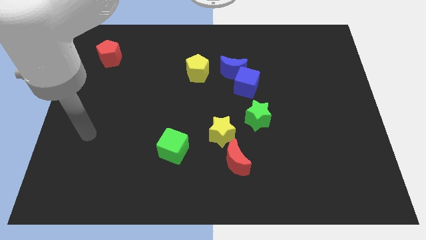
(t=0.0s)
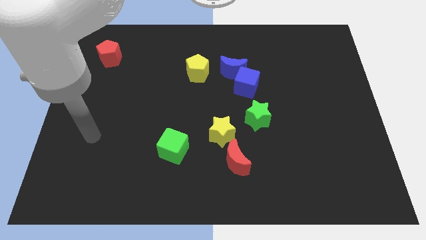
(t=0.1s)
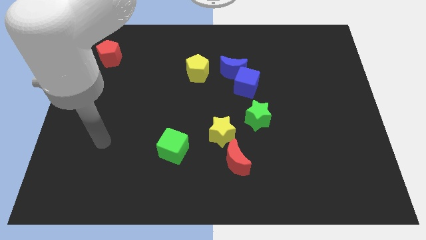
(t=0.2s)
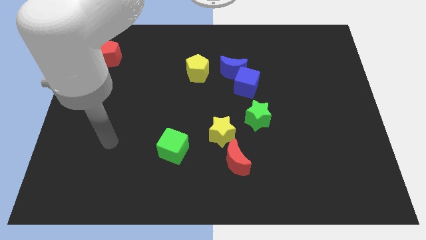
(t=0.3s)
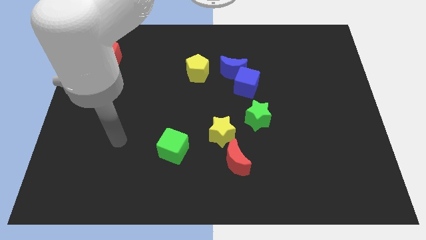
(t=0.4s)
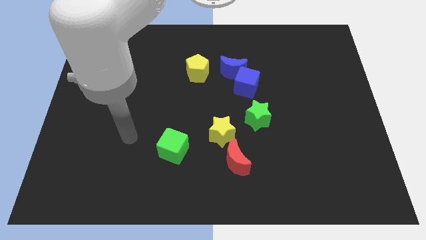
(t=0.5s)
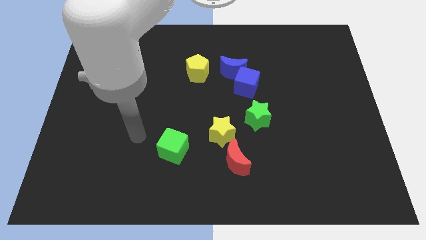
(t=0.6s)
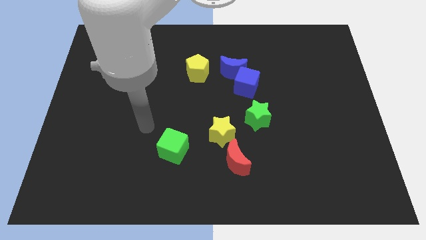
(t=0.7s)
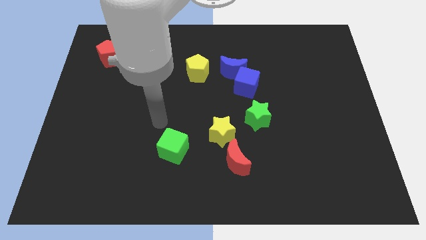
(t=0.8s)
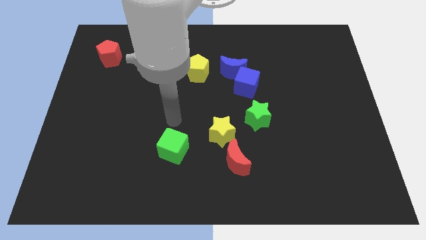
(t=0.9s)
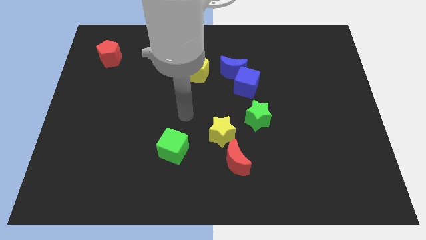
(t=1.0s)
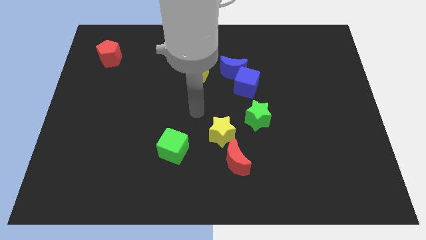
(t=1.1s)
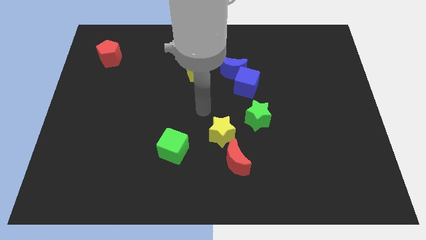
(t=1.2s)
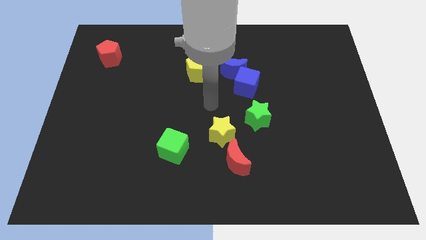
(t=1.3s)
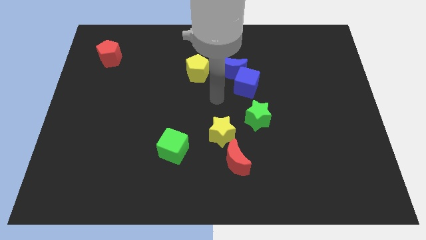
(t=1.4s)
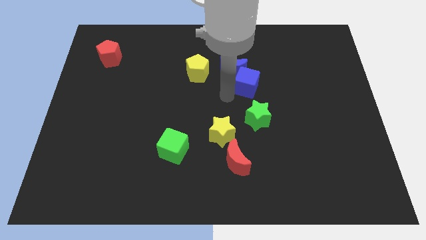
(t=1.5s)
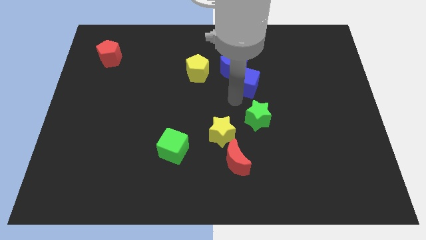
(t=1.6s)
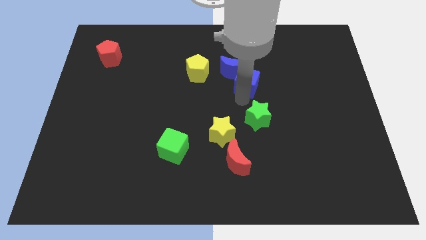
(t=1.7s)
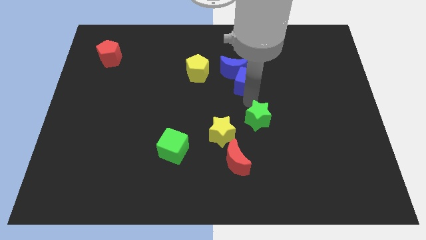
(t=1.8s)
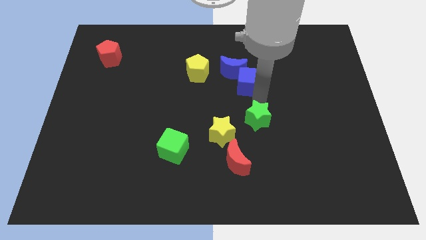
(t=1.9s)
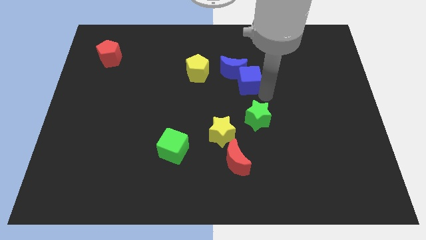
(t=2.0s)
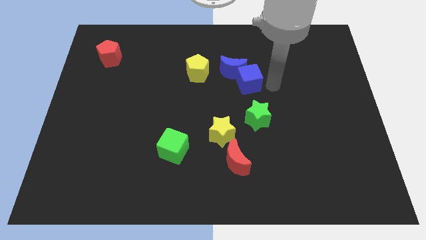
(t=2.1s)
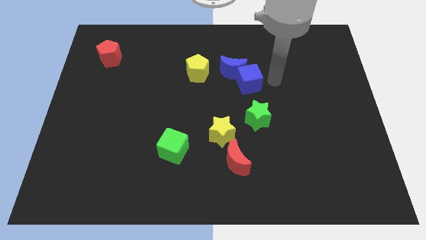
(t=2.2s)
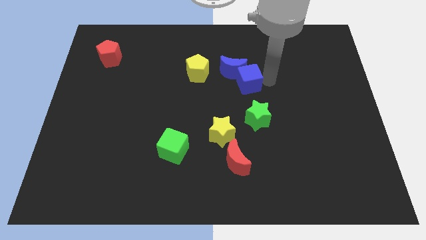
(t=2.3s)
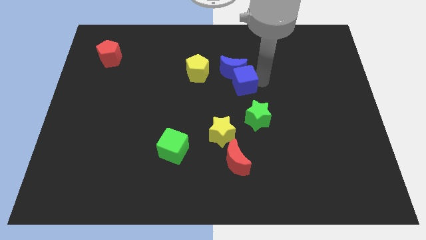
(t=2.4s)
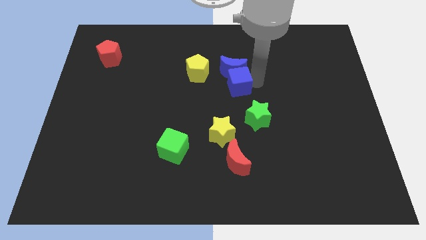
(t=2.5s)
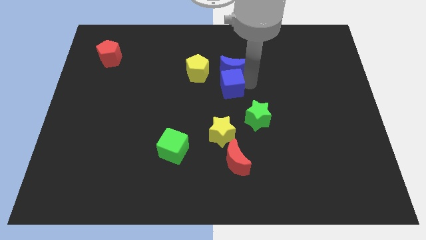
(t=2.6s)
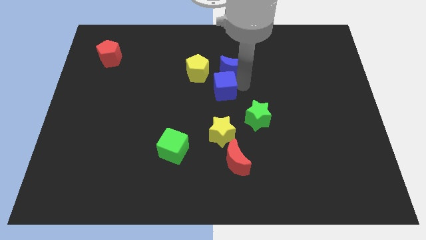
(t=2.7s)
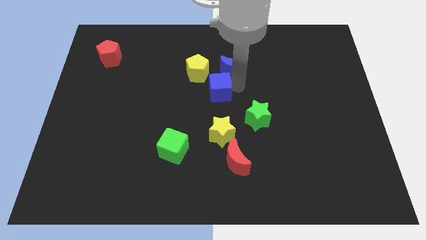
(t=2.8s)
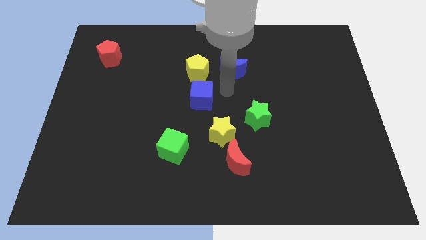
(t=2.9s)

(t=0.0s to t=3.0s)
slightly push the blue cube to the left

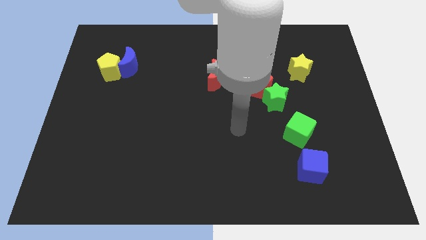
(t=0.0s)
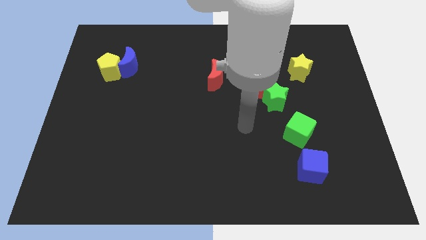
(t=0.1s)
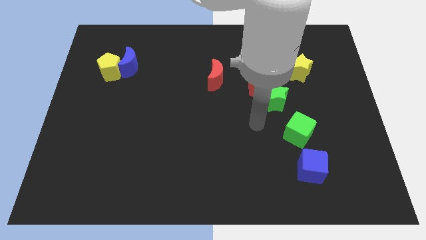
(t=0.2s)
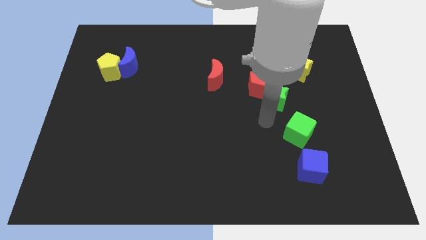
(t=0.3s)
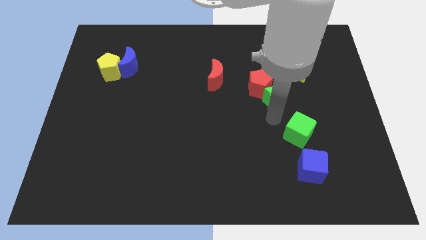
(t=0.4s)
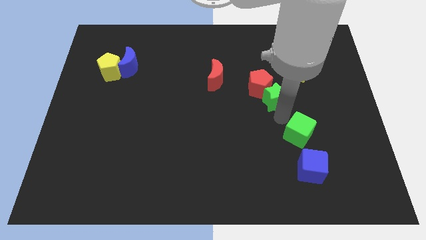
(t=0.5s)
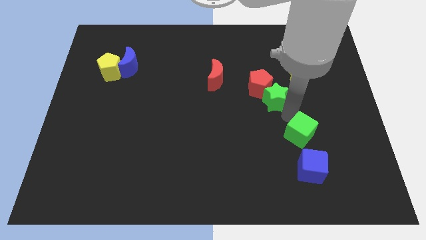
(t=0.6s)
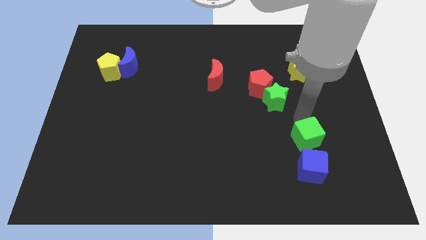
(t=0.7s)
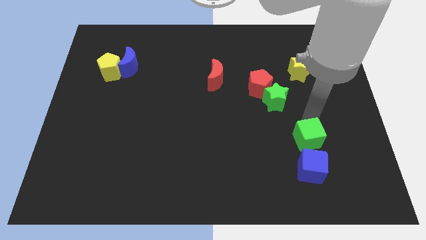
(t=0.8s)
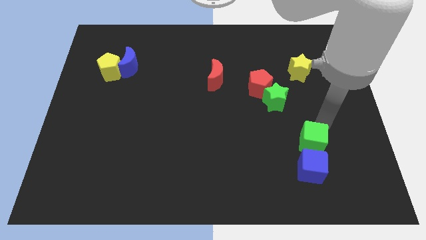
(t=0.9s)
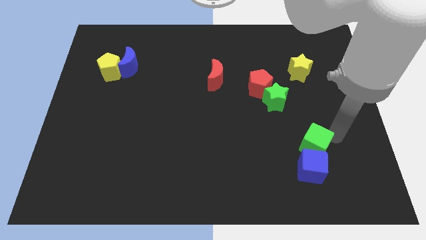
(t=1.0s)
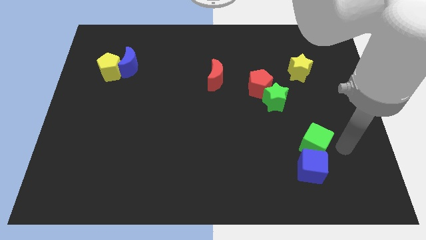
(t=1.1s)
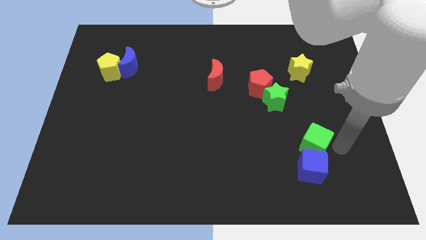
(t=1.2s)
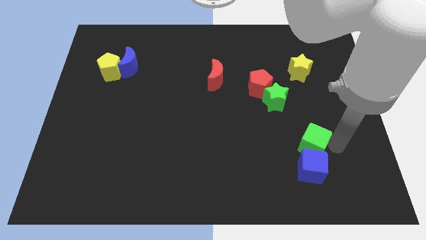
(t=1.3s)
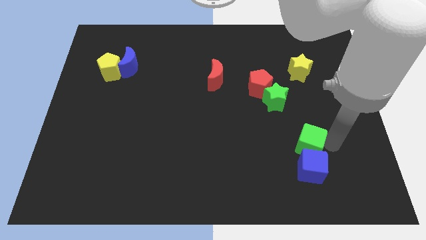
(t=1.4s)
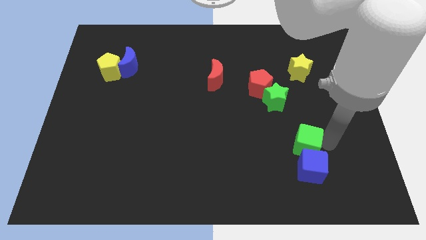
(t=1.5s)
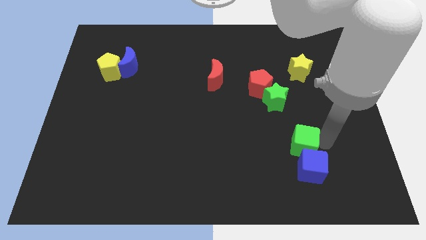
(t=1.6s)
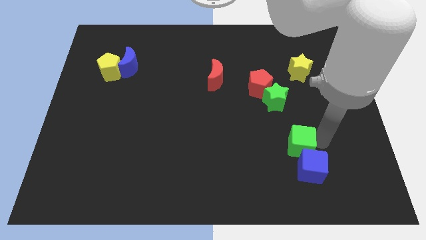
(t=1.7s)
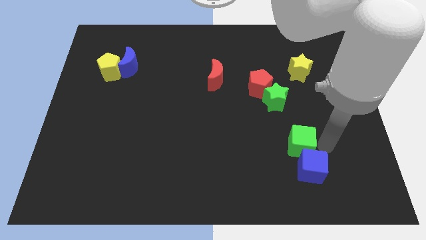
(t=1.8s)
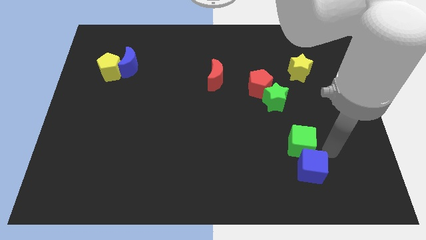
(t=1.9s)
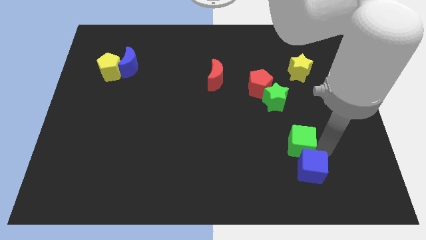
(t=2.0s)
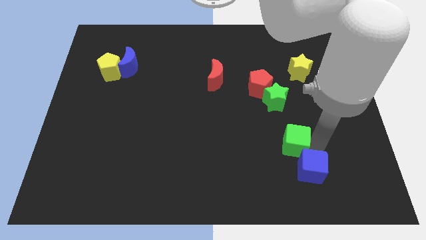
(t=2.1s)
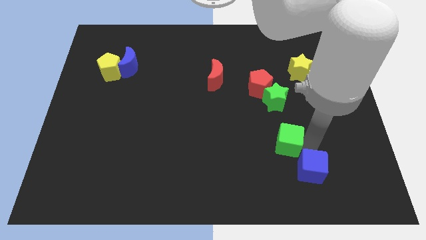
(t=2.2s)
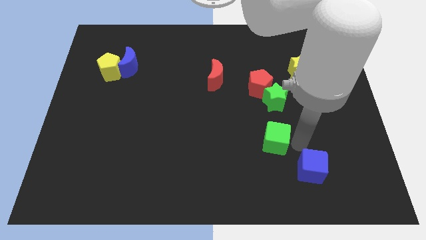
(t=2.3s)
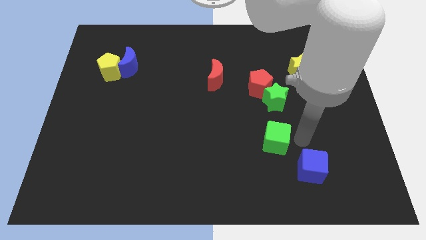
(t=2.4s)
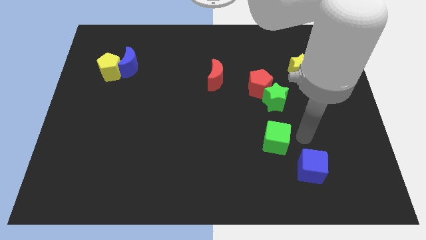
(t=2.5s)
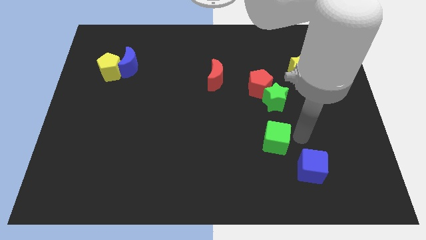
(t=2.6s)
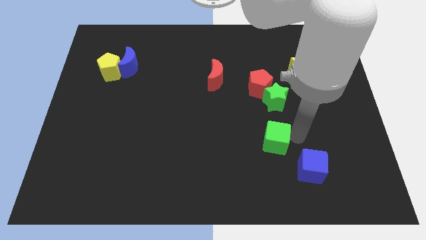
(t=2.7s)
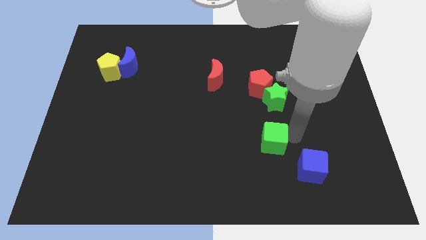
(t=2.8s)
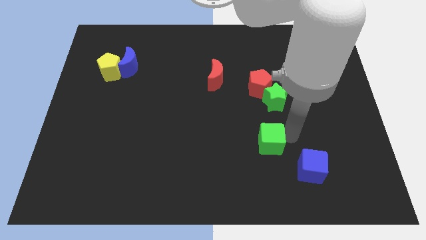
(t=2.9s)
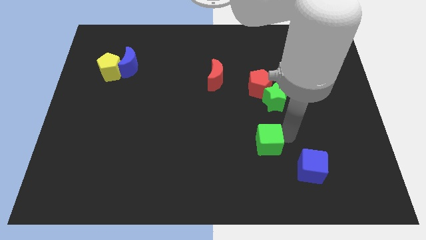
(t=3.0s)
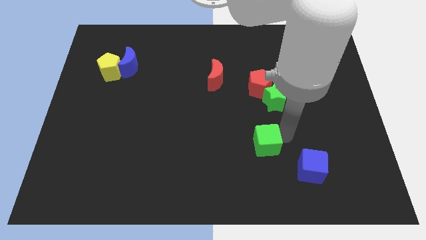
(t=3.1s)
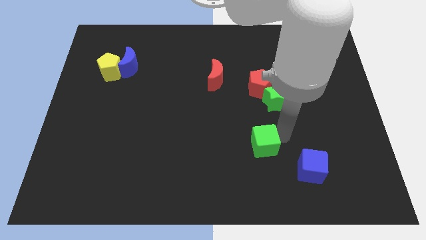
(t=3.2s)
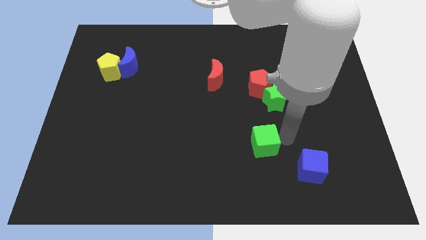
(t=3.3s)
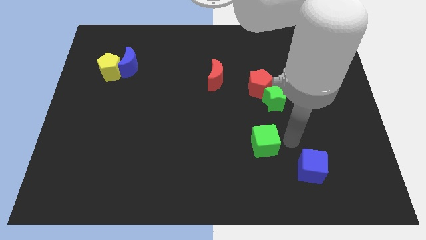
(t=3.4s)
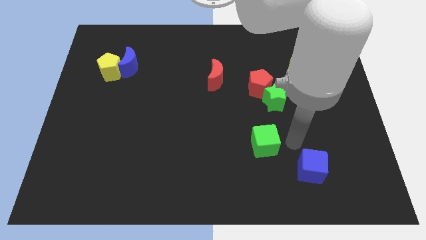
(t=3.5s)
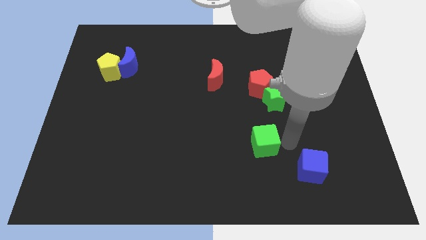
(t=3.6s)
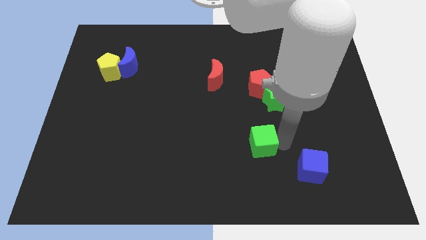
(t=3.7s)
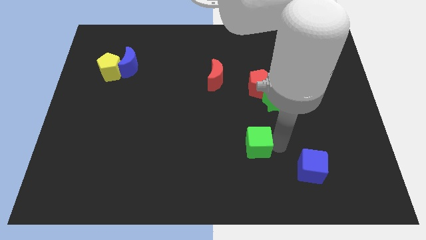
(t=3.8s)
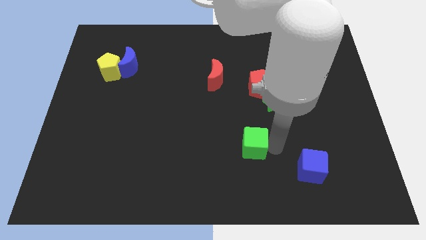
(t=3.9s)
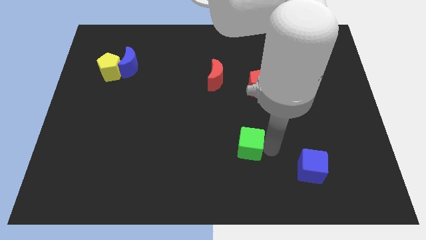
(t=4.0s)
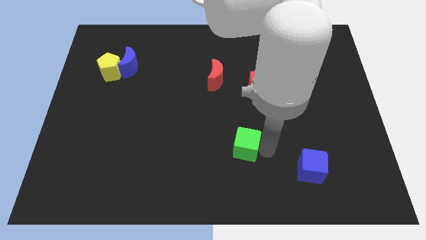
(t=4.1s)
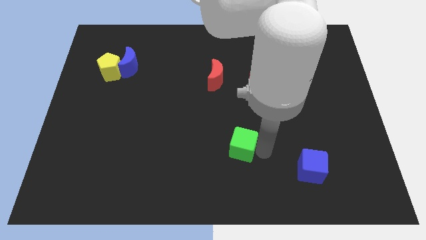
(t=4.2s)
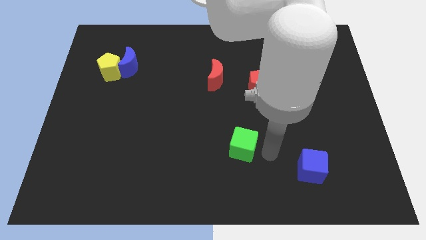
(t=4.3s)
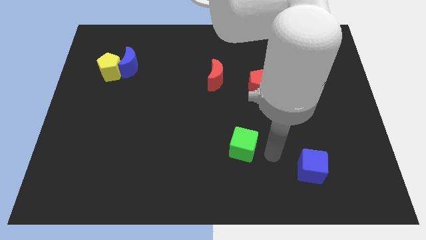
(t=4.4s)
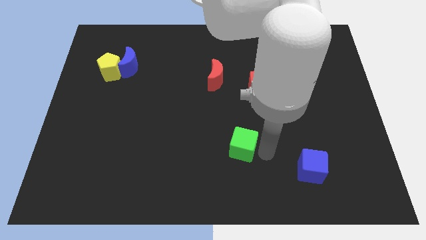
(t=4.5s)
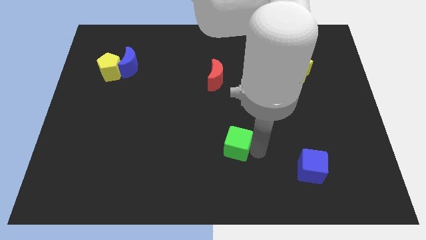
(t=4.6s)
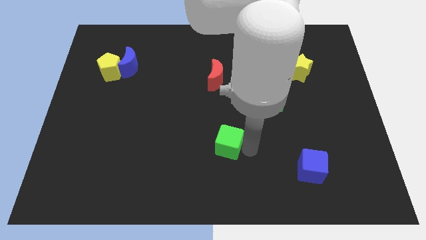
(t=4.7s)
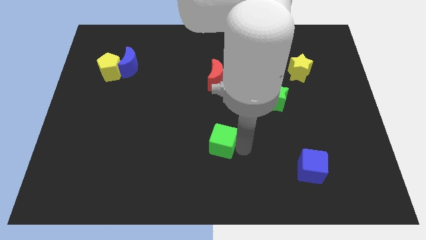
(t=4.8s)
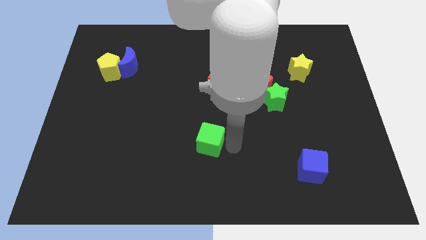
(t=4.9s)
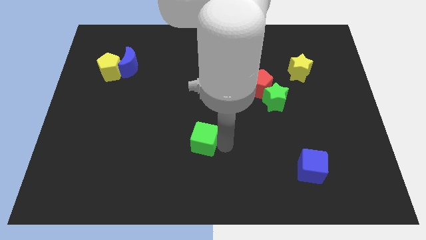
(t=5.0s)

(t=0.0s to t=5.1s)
slide the green cube left
